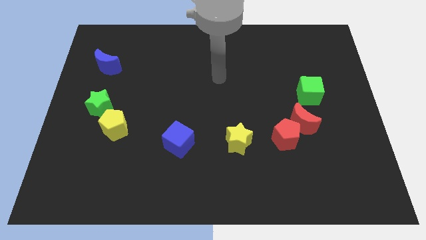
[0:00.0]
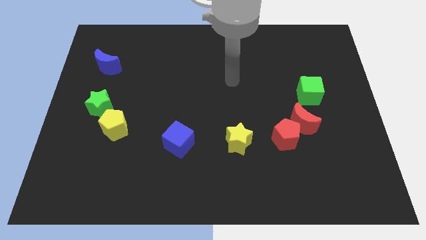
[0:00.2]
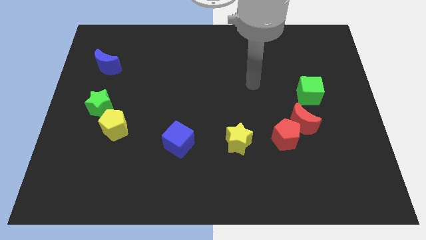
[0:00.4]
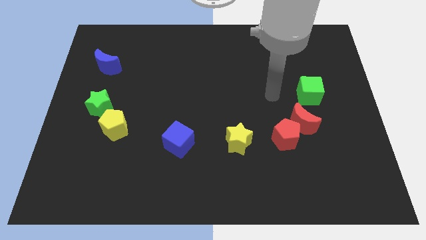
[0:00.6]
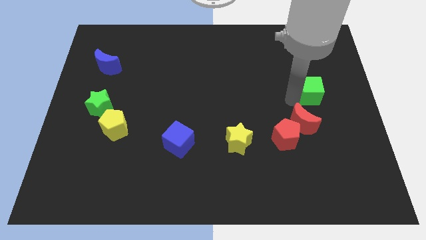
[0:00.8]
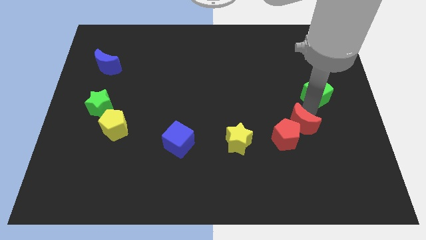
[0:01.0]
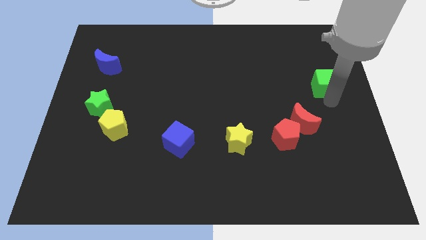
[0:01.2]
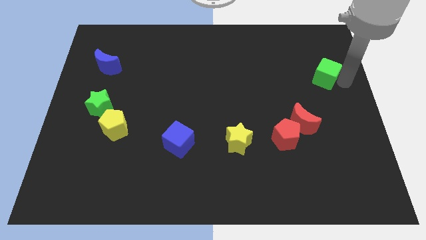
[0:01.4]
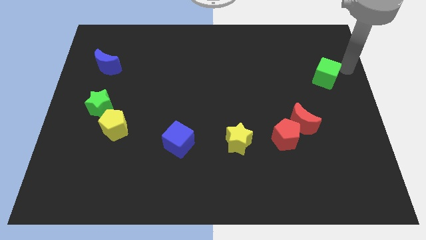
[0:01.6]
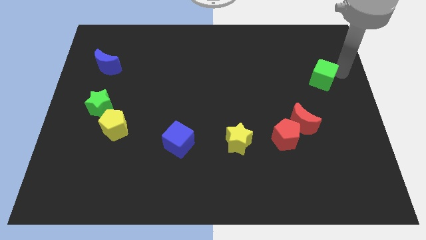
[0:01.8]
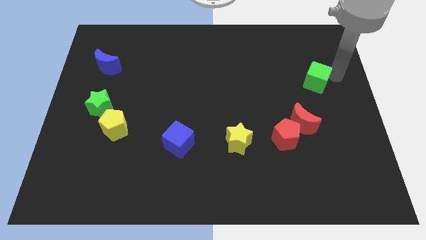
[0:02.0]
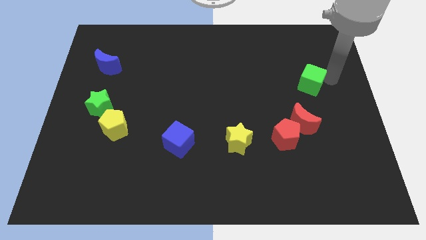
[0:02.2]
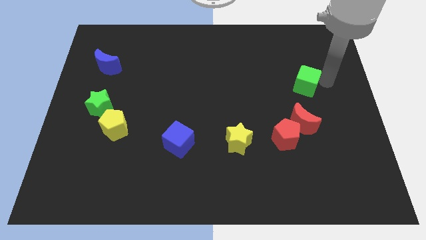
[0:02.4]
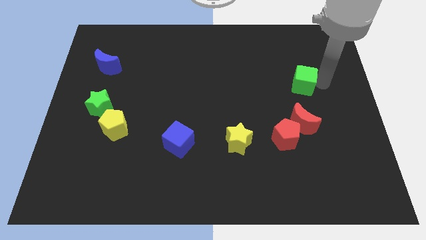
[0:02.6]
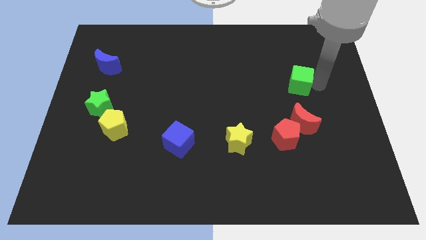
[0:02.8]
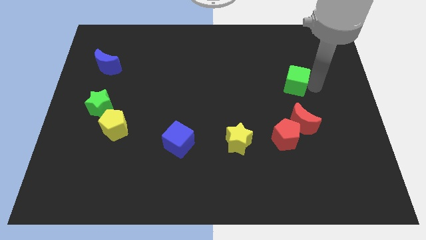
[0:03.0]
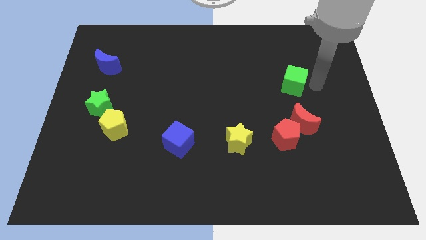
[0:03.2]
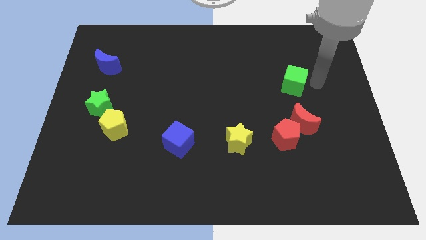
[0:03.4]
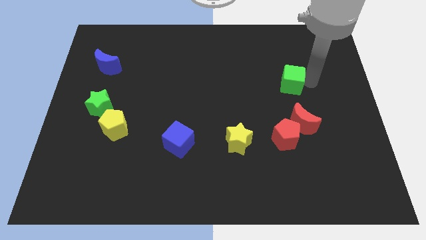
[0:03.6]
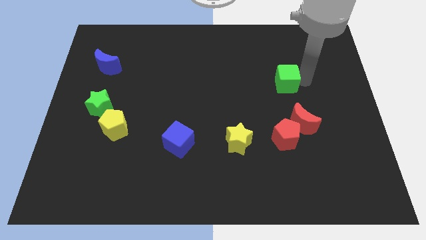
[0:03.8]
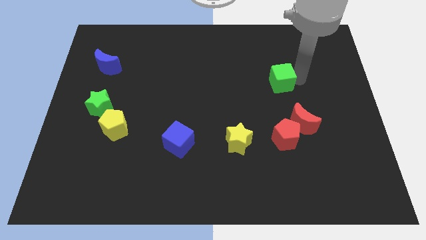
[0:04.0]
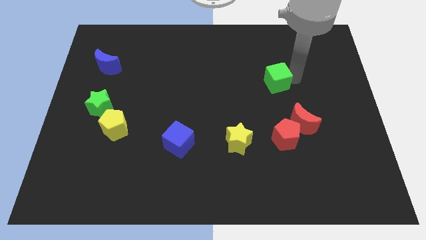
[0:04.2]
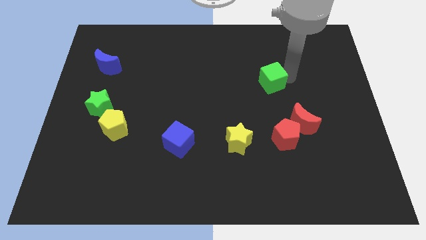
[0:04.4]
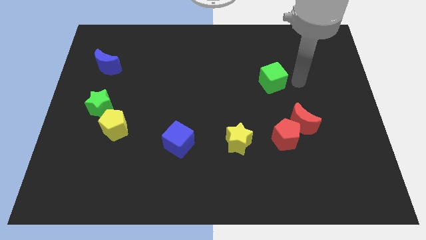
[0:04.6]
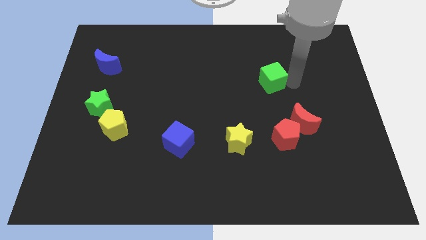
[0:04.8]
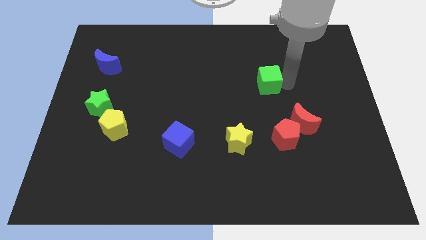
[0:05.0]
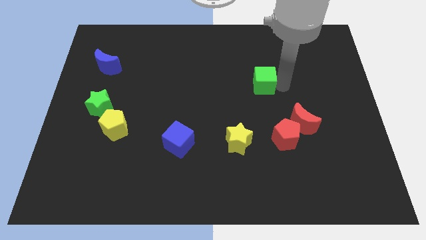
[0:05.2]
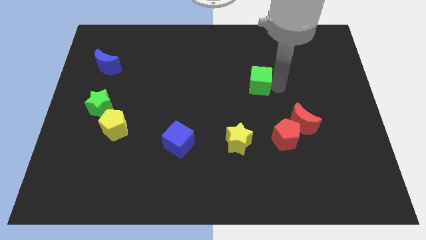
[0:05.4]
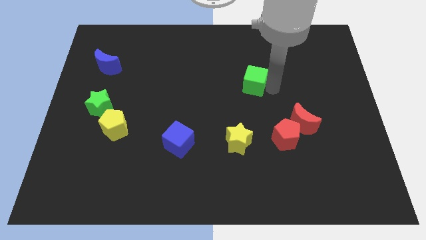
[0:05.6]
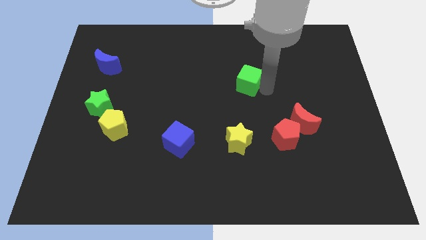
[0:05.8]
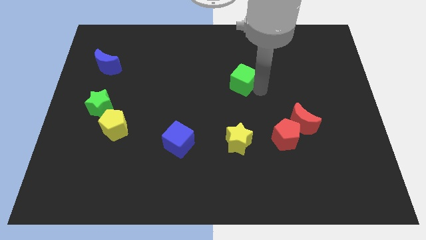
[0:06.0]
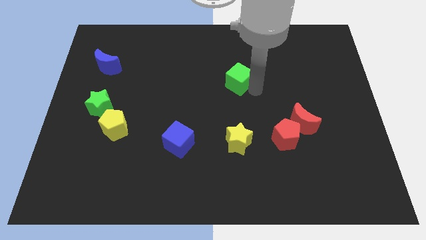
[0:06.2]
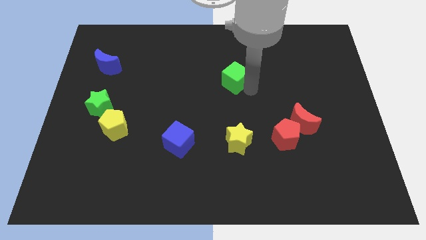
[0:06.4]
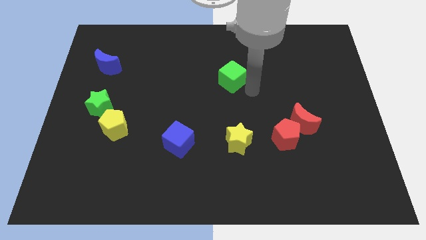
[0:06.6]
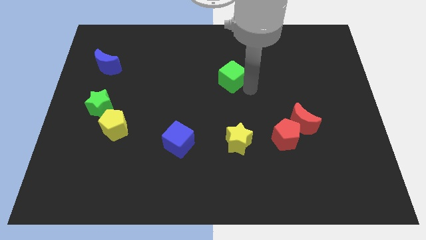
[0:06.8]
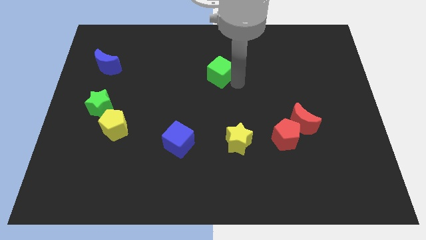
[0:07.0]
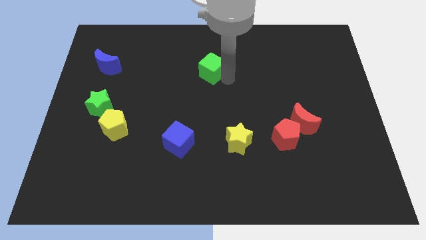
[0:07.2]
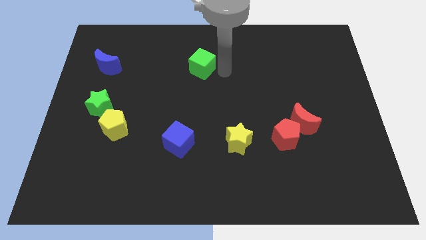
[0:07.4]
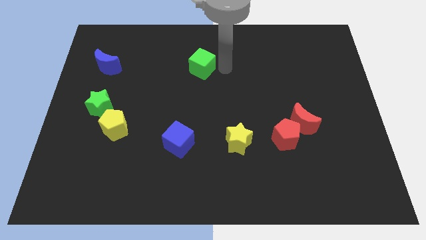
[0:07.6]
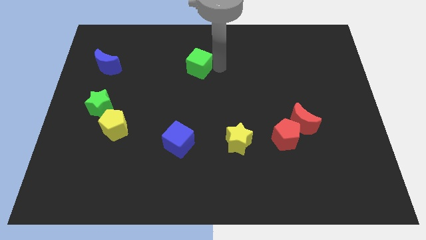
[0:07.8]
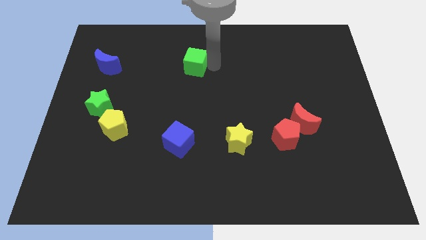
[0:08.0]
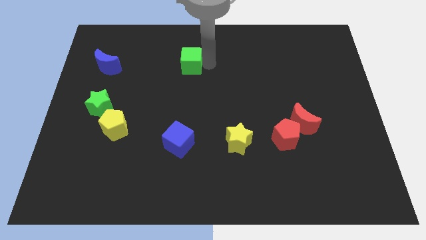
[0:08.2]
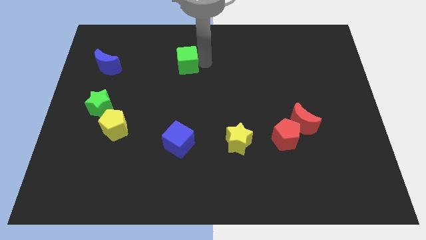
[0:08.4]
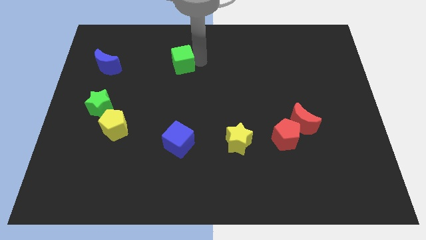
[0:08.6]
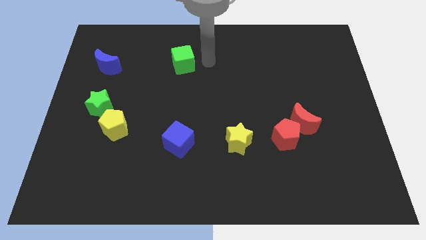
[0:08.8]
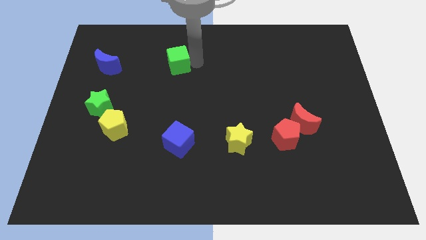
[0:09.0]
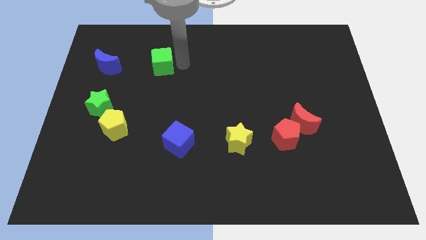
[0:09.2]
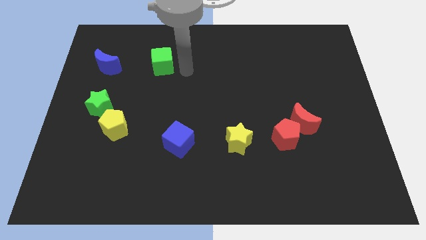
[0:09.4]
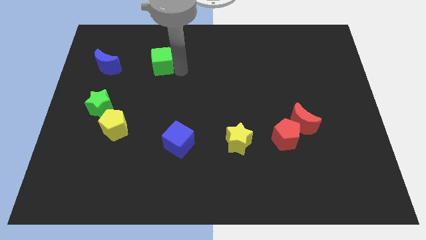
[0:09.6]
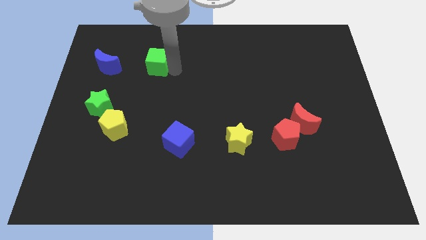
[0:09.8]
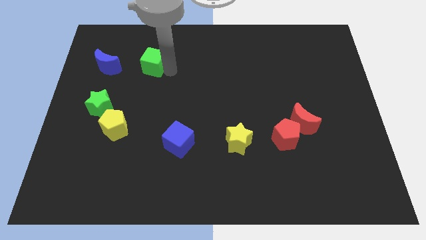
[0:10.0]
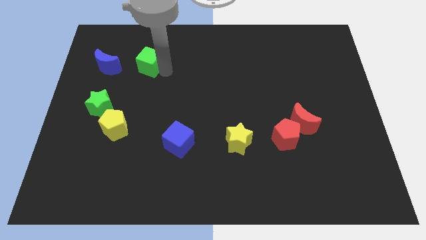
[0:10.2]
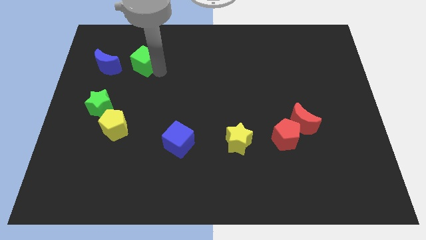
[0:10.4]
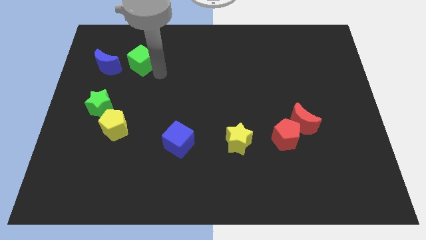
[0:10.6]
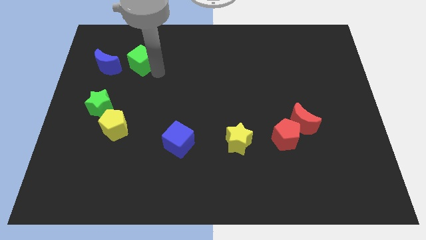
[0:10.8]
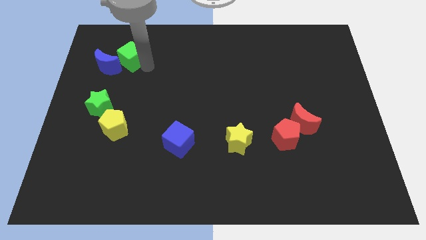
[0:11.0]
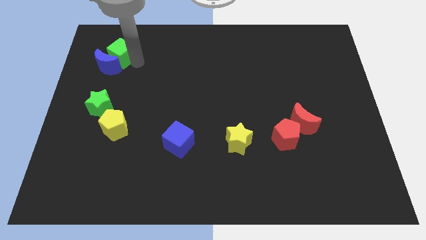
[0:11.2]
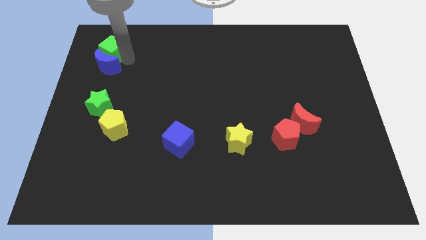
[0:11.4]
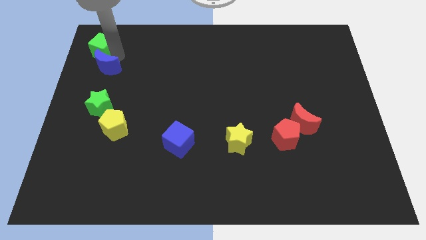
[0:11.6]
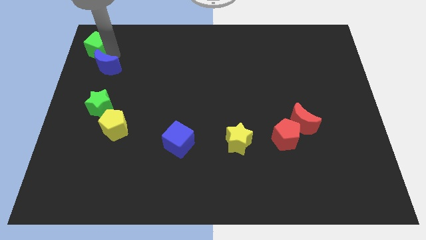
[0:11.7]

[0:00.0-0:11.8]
slide the green cube to the top left of the board

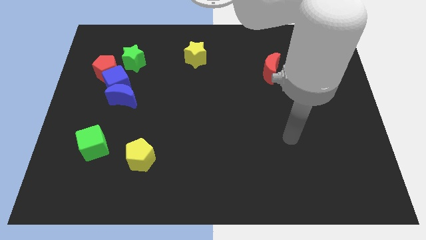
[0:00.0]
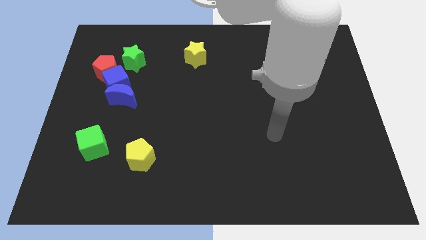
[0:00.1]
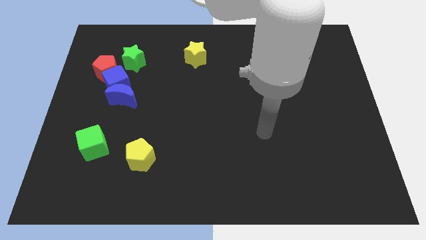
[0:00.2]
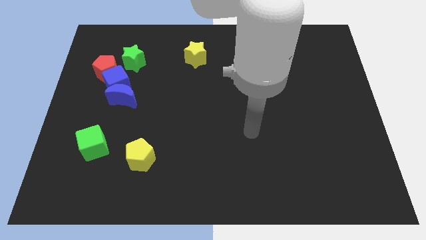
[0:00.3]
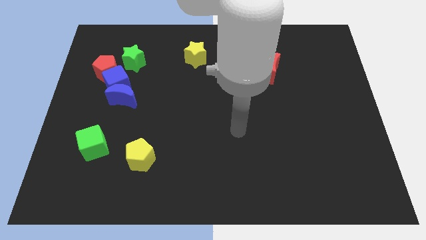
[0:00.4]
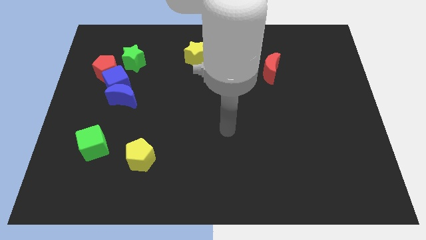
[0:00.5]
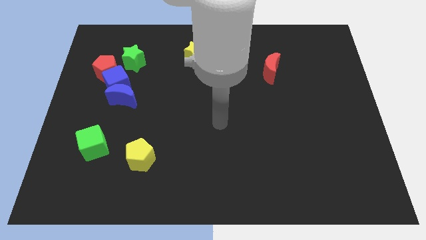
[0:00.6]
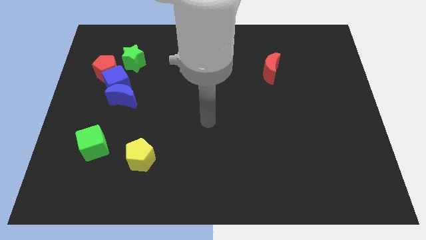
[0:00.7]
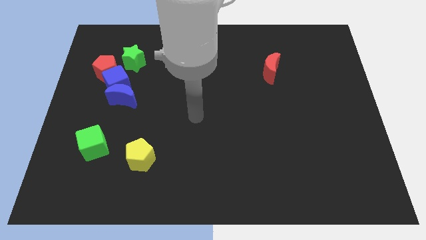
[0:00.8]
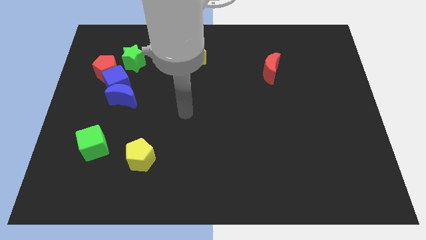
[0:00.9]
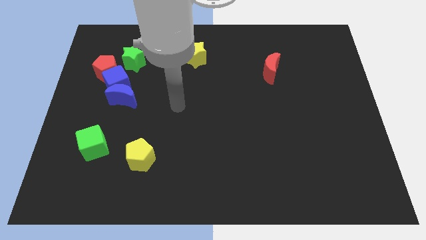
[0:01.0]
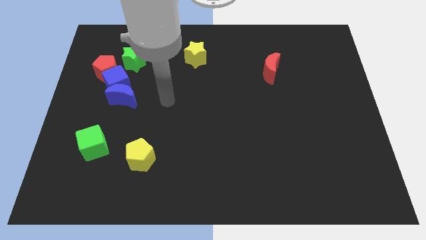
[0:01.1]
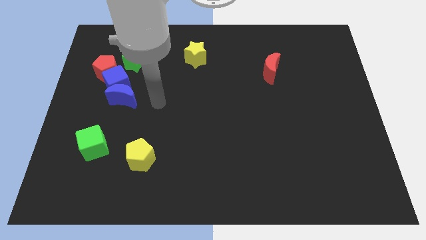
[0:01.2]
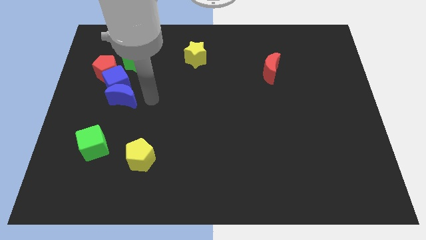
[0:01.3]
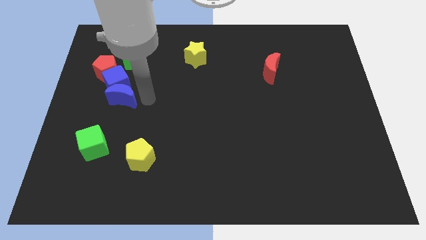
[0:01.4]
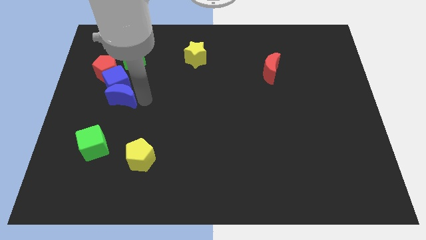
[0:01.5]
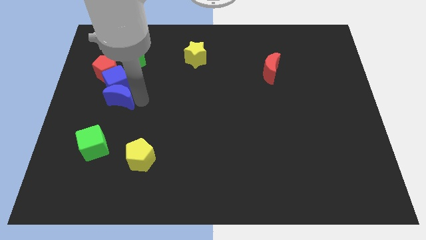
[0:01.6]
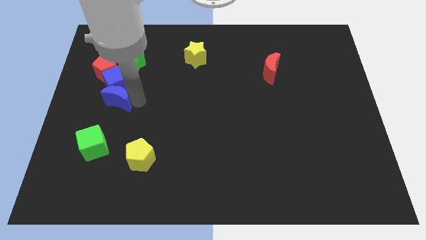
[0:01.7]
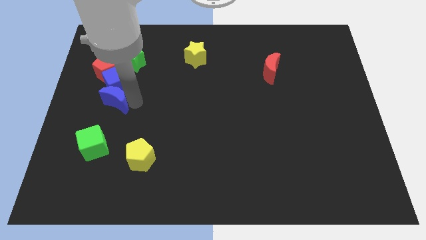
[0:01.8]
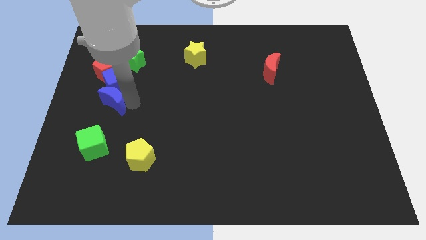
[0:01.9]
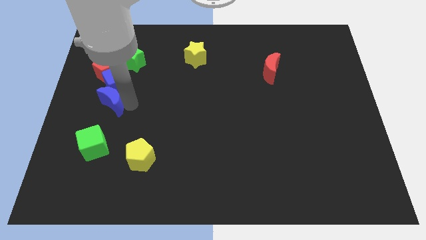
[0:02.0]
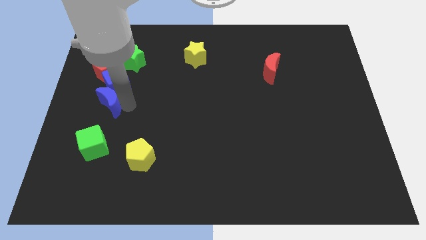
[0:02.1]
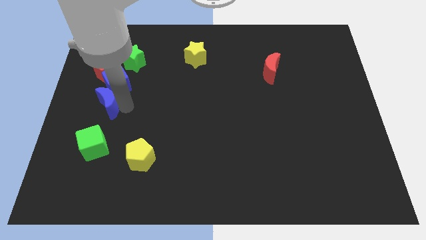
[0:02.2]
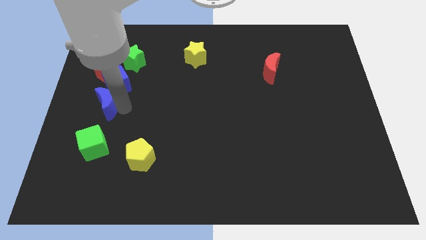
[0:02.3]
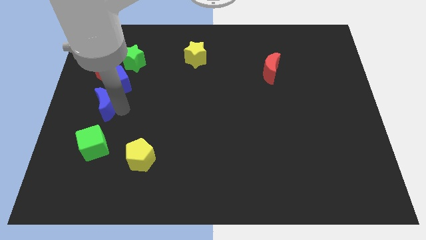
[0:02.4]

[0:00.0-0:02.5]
push the blue moon to the center left
